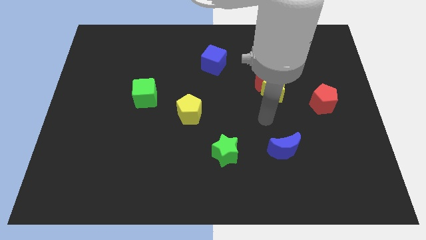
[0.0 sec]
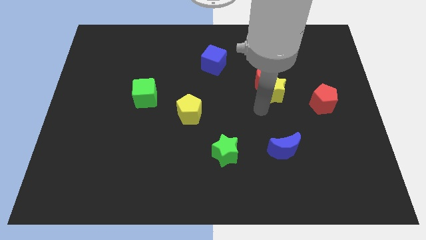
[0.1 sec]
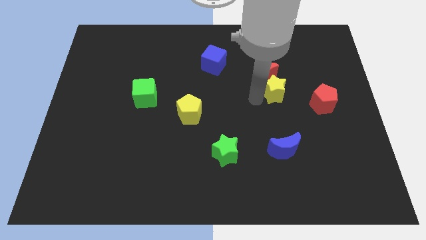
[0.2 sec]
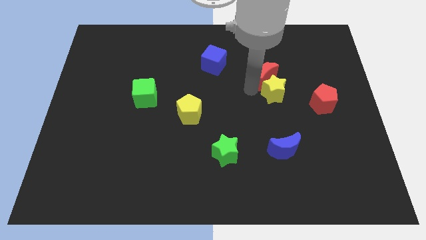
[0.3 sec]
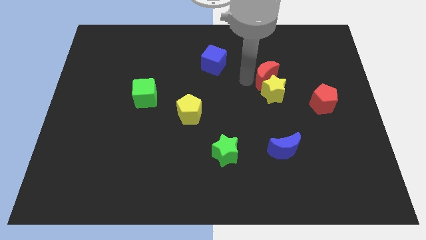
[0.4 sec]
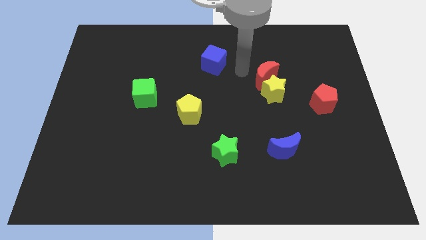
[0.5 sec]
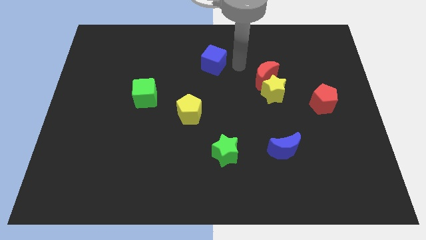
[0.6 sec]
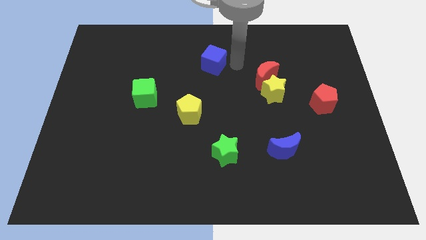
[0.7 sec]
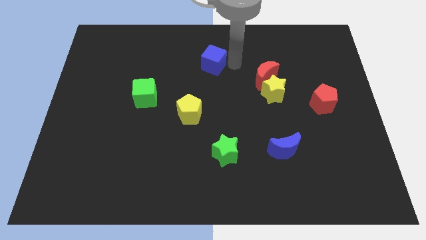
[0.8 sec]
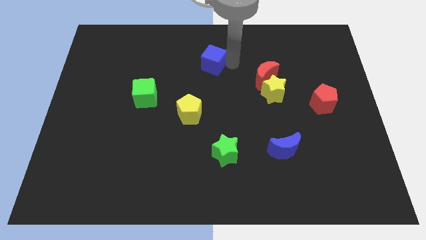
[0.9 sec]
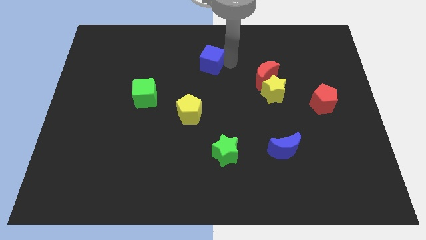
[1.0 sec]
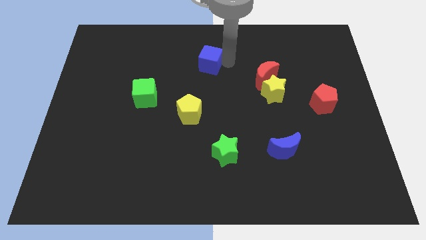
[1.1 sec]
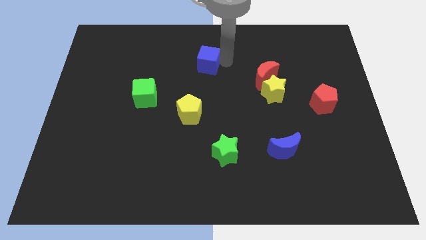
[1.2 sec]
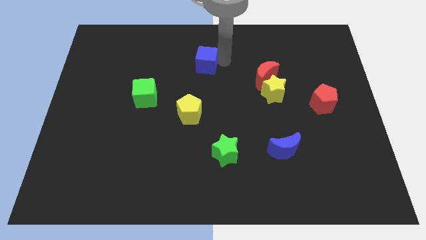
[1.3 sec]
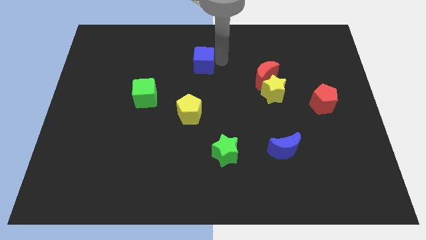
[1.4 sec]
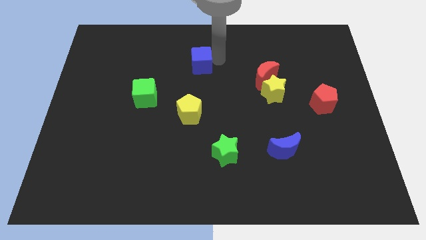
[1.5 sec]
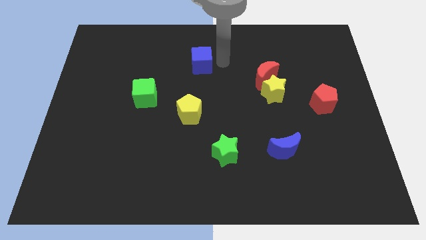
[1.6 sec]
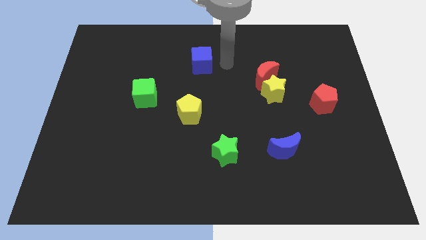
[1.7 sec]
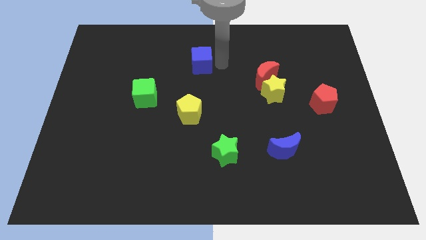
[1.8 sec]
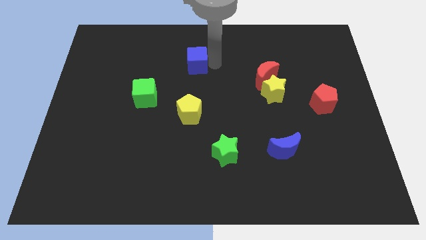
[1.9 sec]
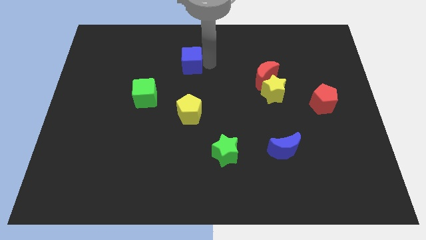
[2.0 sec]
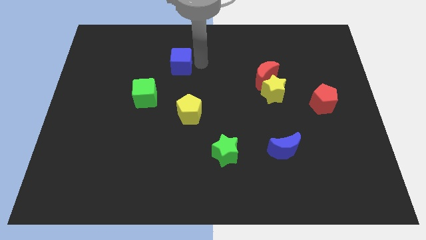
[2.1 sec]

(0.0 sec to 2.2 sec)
slide the blue cube a little bit left

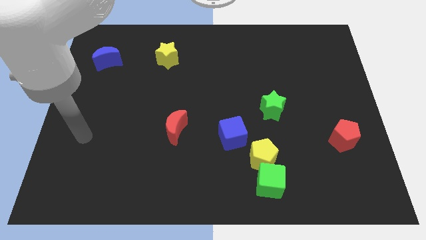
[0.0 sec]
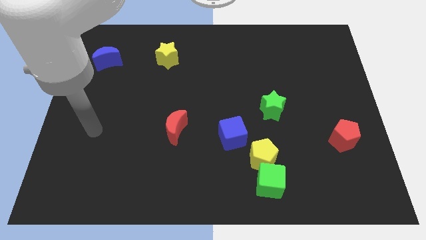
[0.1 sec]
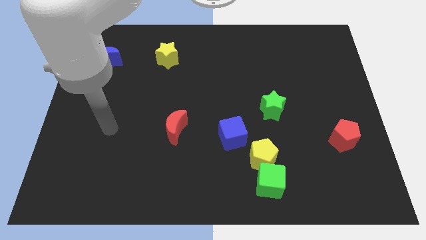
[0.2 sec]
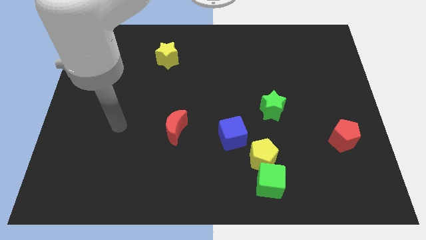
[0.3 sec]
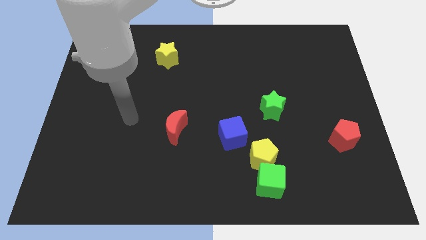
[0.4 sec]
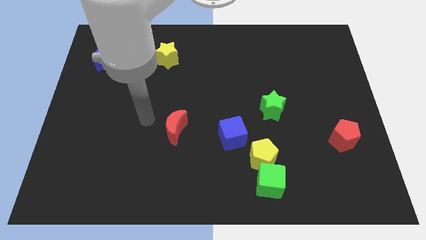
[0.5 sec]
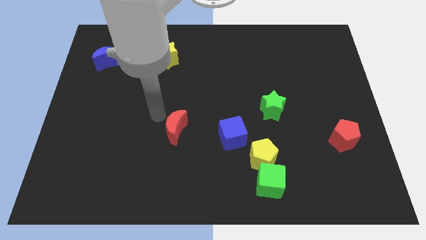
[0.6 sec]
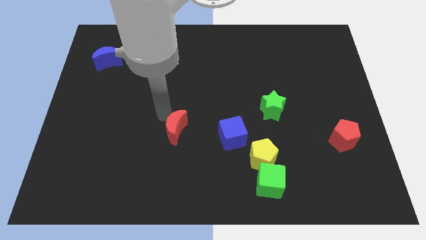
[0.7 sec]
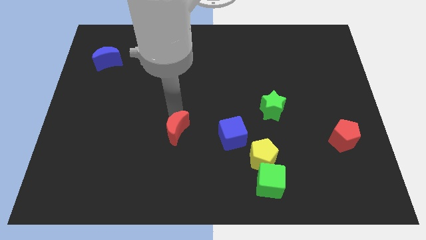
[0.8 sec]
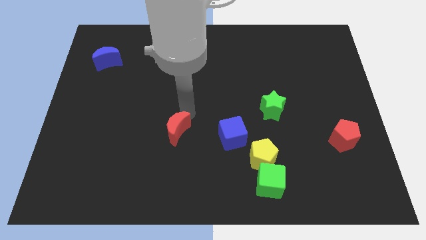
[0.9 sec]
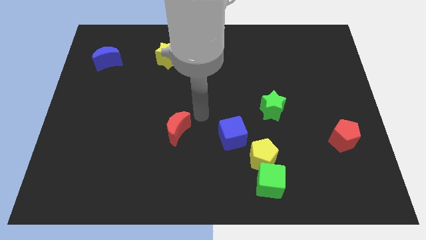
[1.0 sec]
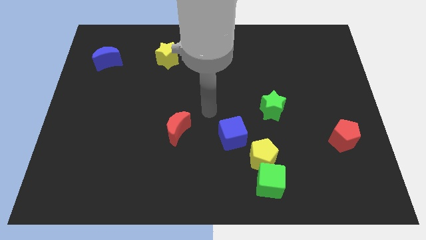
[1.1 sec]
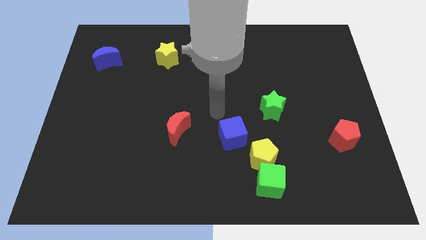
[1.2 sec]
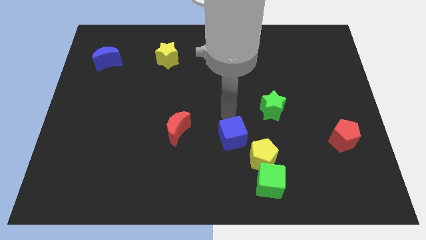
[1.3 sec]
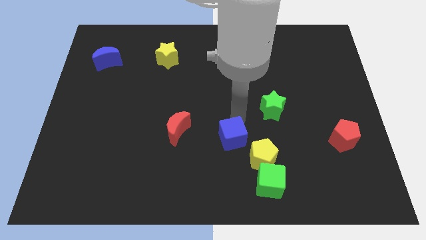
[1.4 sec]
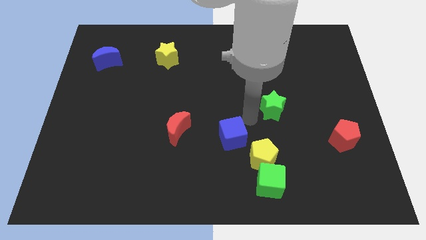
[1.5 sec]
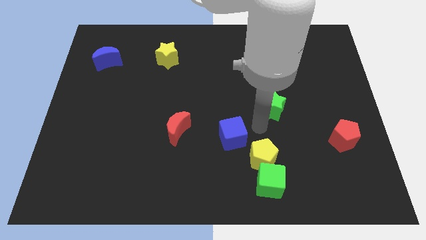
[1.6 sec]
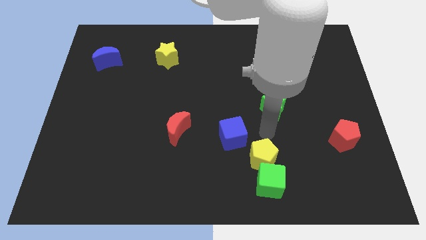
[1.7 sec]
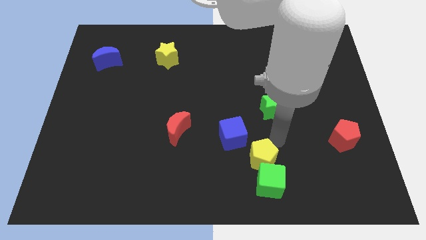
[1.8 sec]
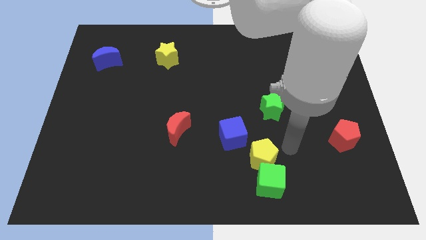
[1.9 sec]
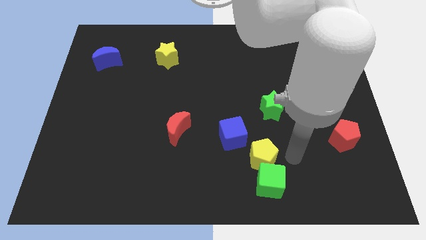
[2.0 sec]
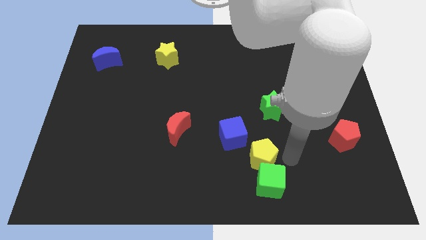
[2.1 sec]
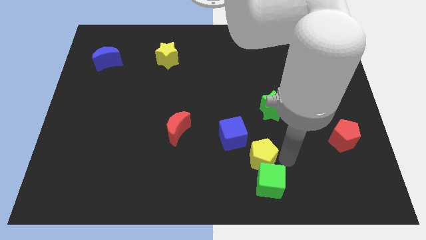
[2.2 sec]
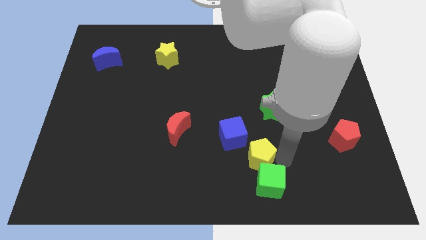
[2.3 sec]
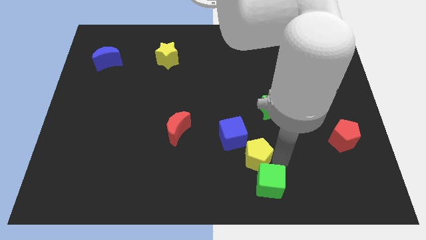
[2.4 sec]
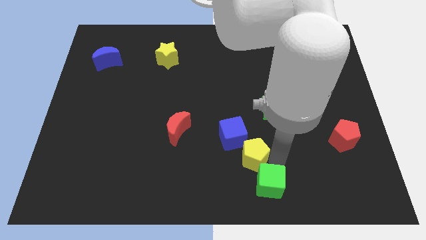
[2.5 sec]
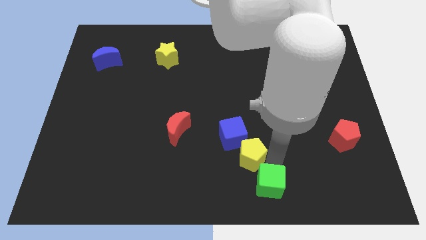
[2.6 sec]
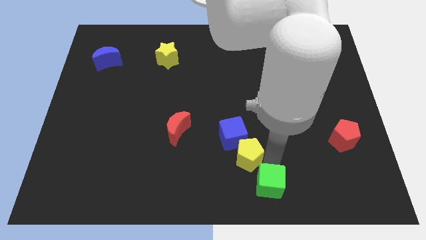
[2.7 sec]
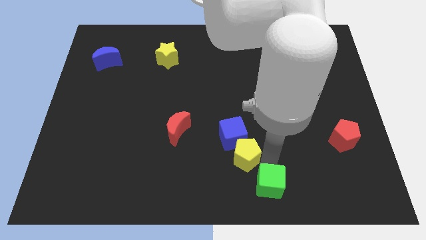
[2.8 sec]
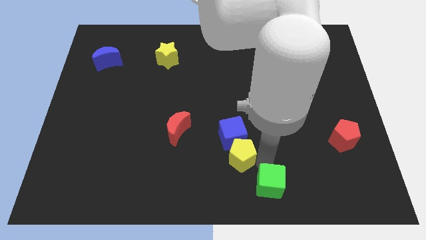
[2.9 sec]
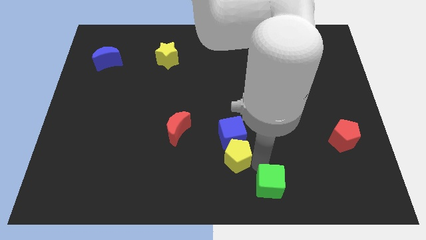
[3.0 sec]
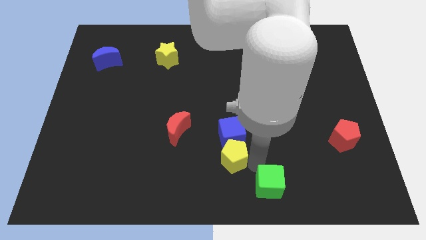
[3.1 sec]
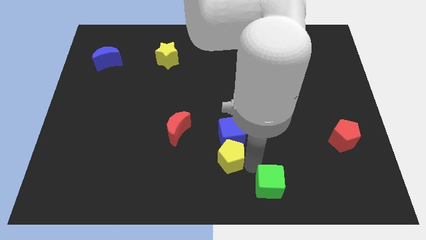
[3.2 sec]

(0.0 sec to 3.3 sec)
push the yellow pentagon slightly left

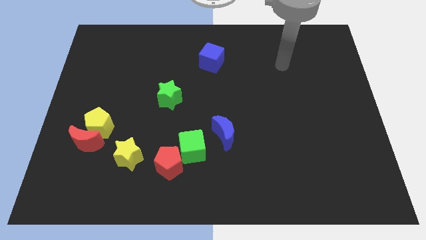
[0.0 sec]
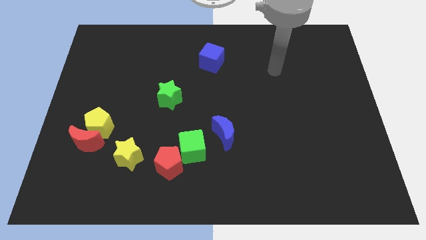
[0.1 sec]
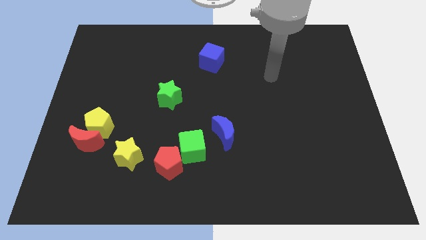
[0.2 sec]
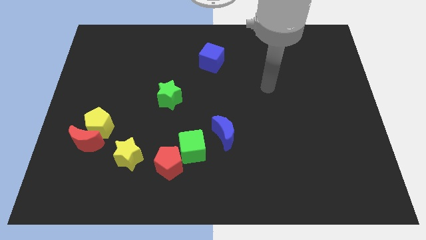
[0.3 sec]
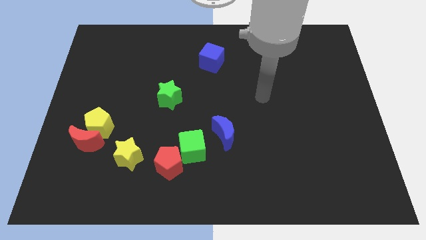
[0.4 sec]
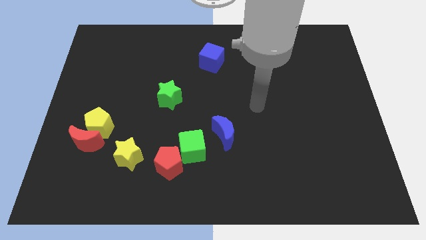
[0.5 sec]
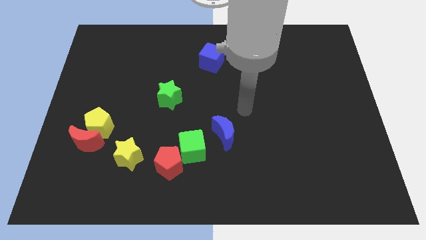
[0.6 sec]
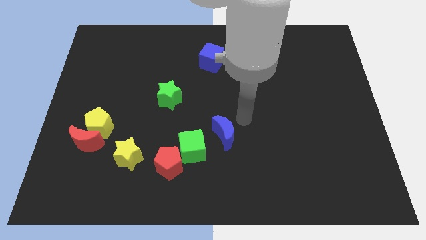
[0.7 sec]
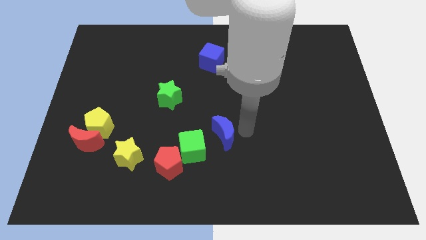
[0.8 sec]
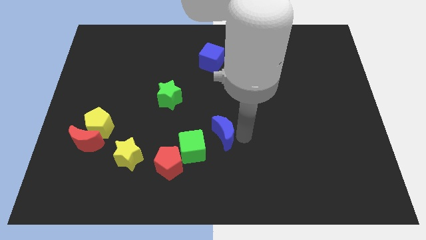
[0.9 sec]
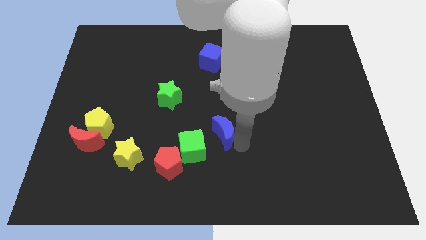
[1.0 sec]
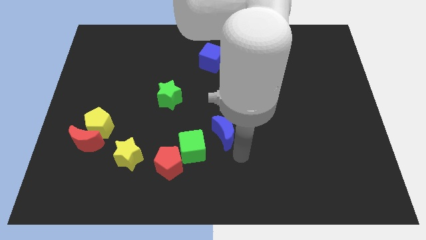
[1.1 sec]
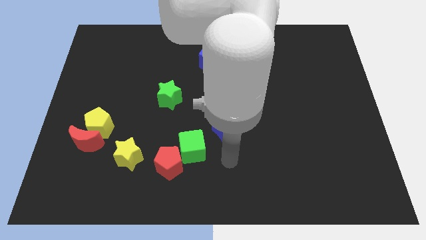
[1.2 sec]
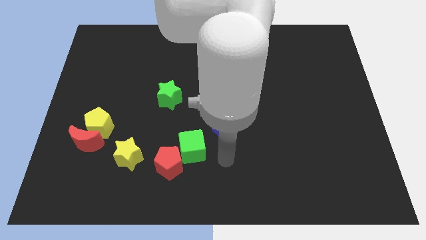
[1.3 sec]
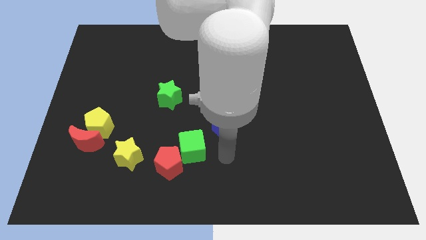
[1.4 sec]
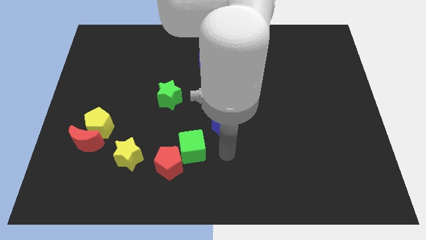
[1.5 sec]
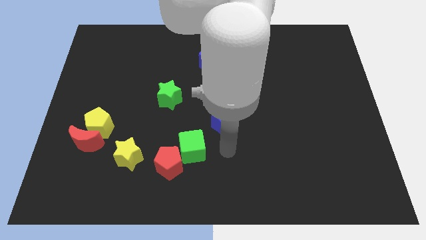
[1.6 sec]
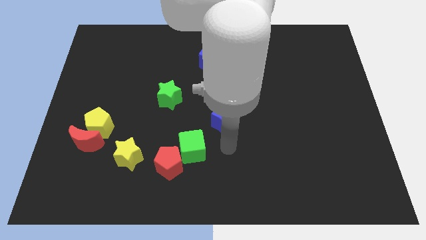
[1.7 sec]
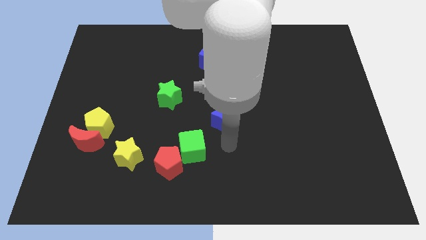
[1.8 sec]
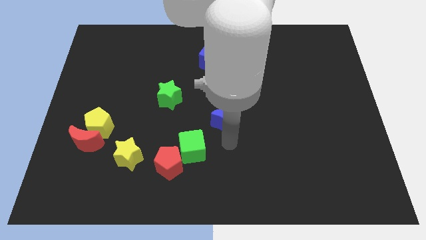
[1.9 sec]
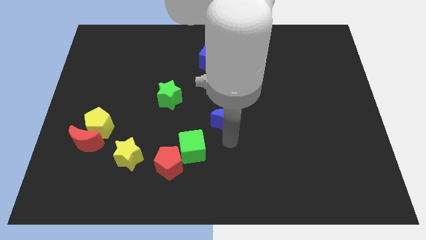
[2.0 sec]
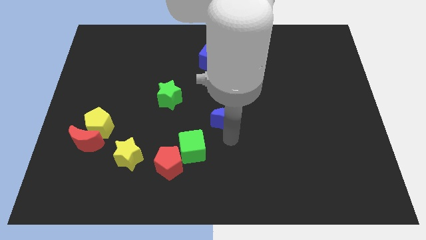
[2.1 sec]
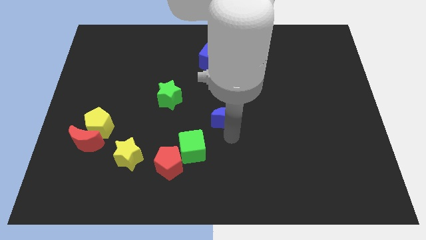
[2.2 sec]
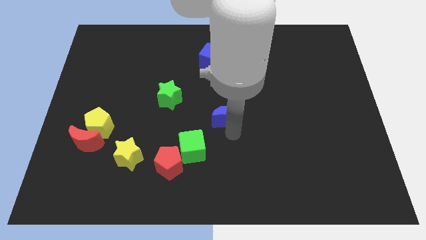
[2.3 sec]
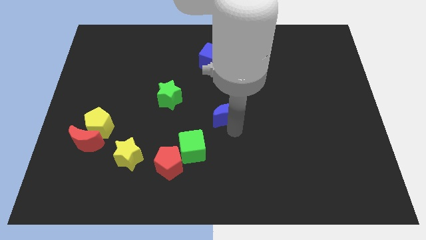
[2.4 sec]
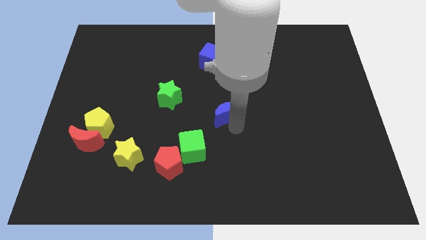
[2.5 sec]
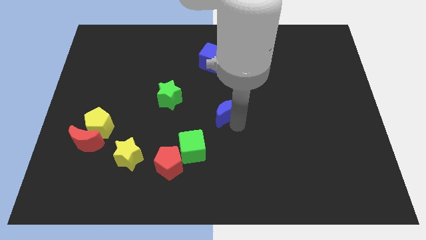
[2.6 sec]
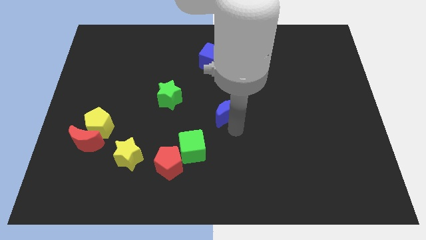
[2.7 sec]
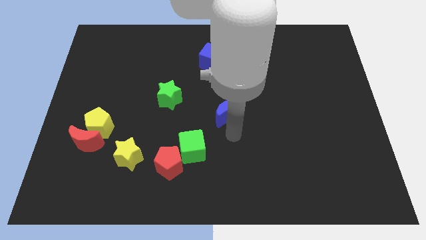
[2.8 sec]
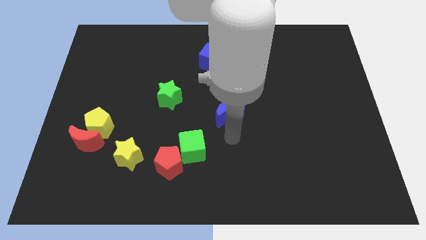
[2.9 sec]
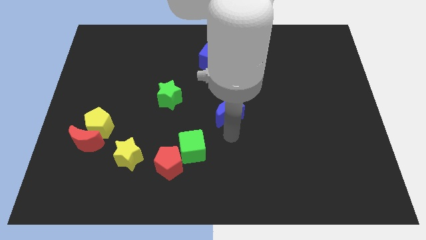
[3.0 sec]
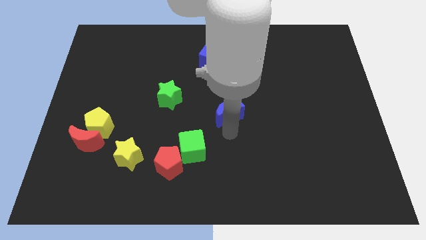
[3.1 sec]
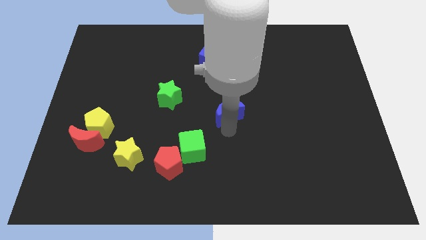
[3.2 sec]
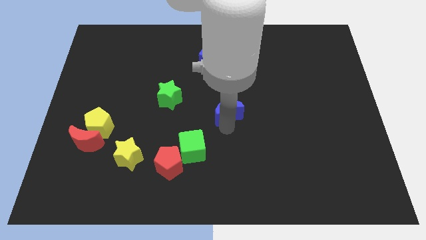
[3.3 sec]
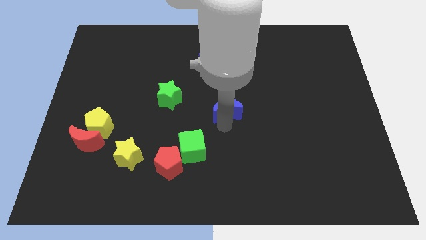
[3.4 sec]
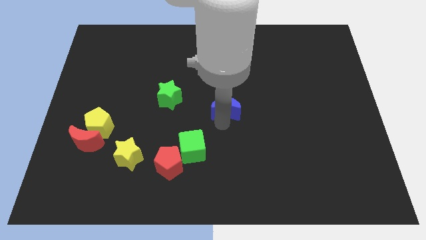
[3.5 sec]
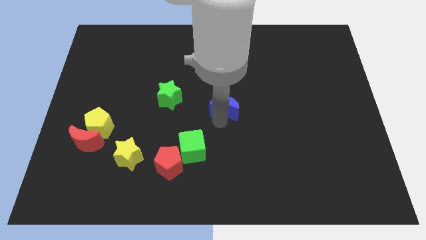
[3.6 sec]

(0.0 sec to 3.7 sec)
slide the blue moon a little bit up
